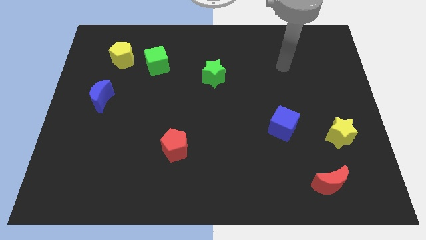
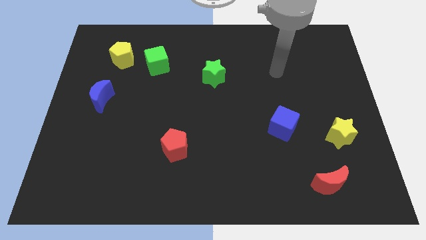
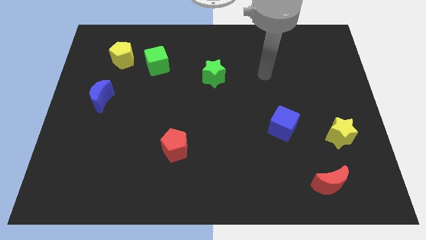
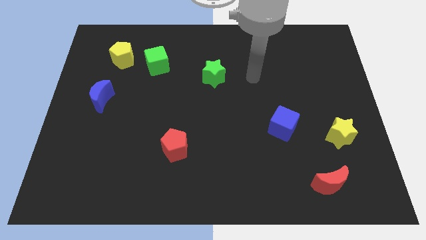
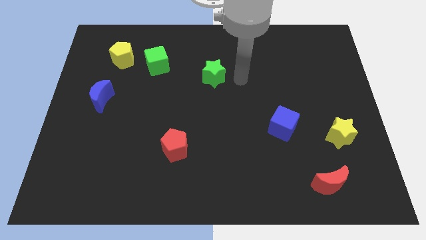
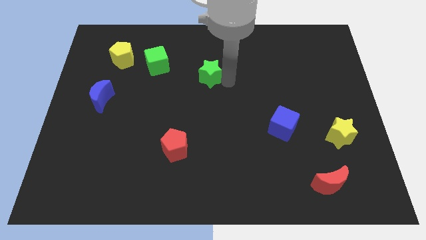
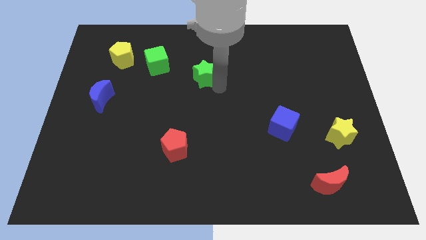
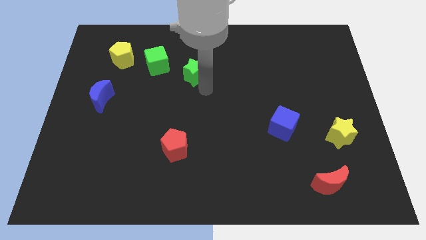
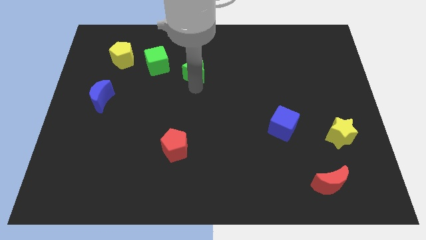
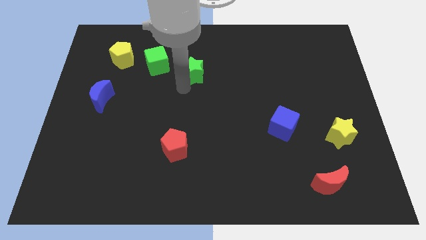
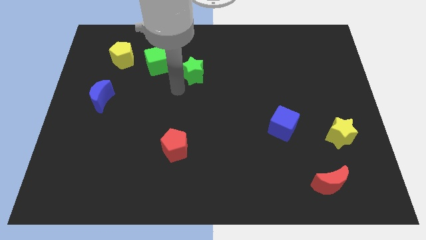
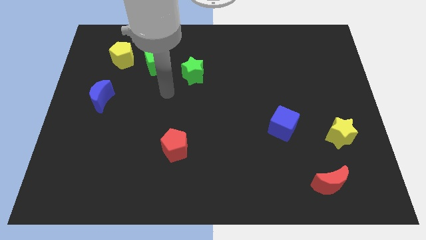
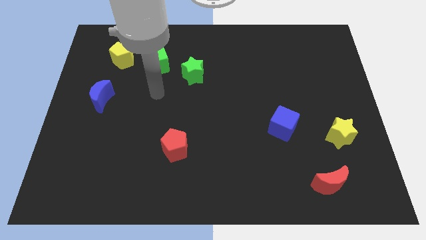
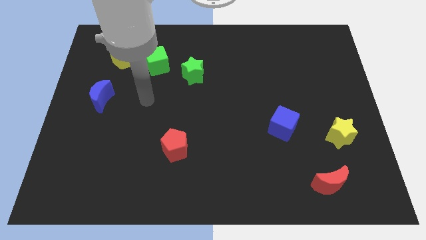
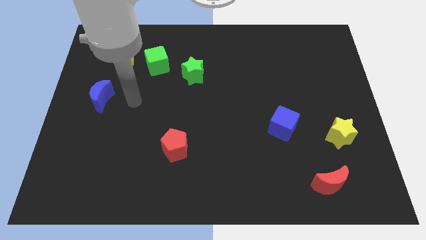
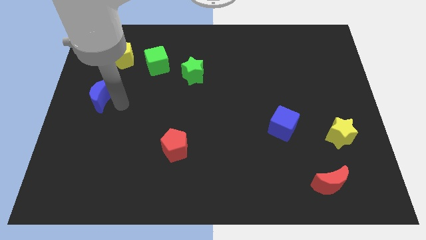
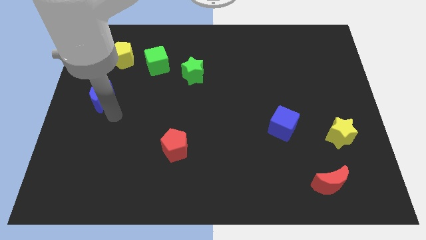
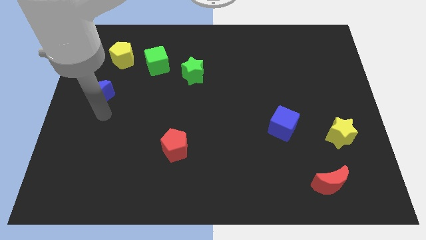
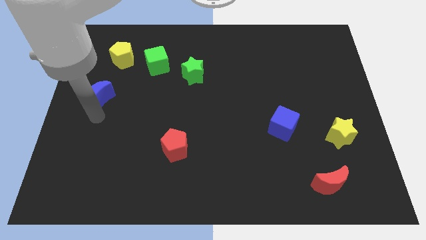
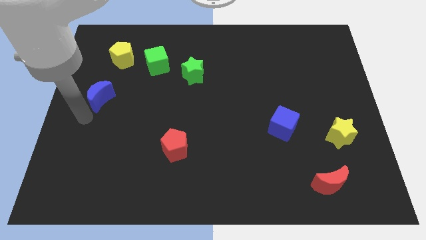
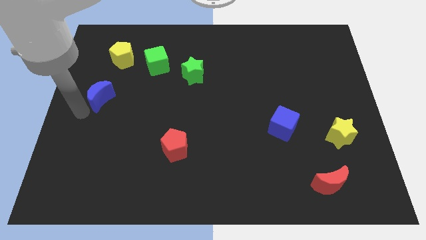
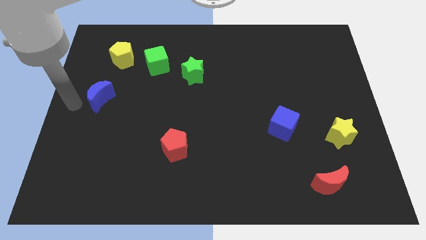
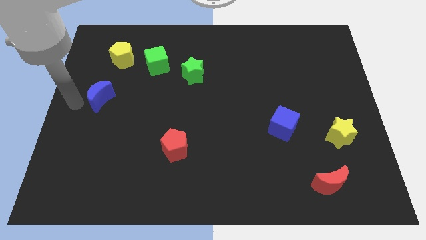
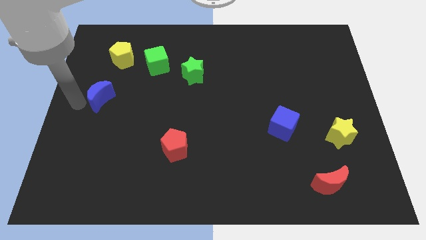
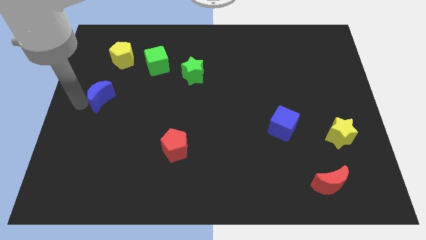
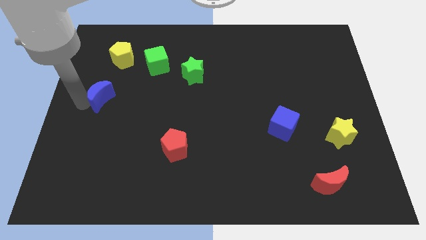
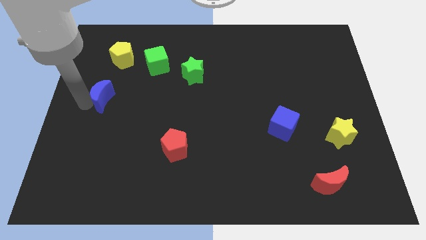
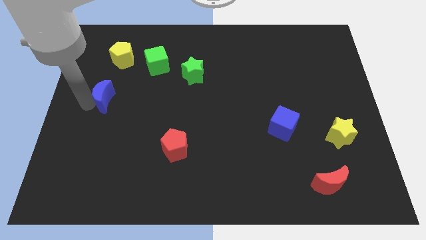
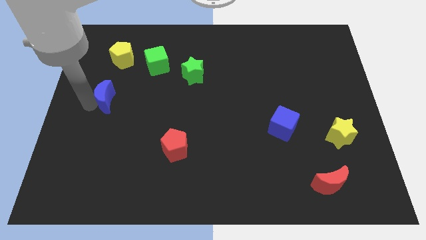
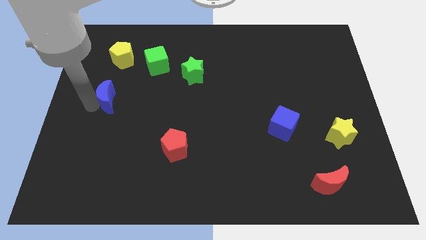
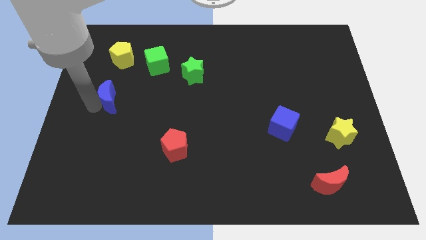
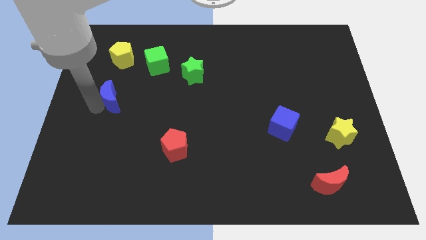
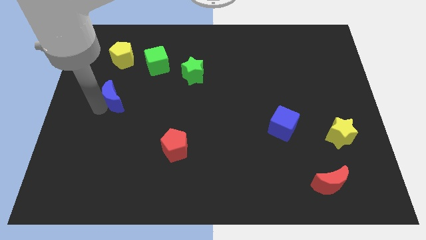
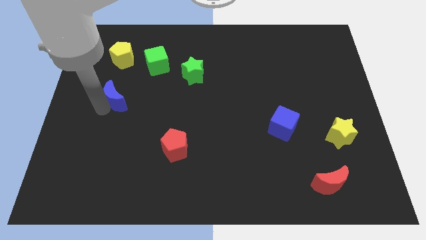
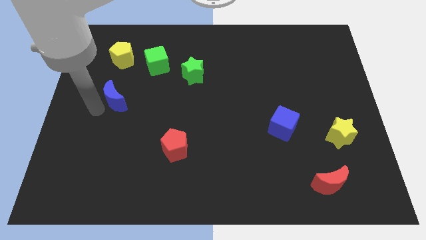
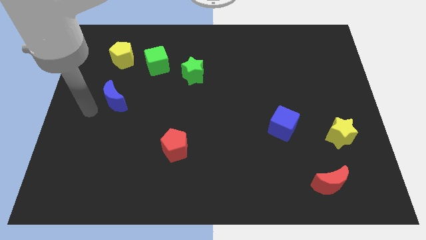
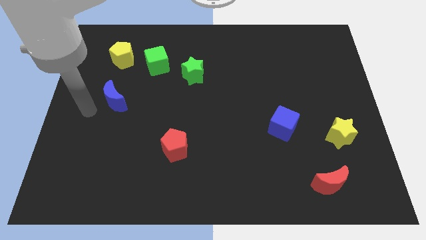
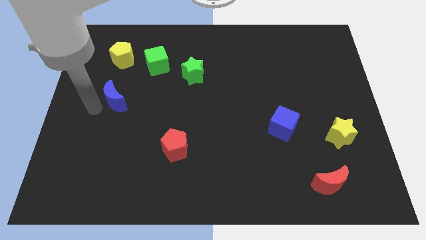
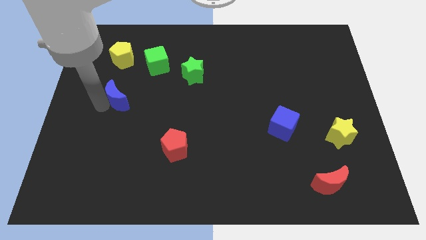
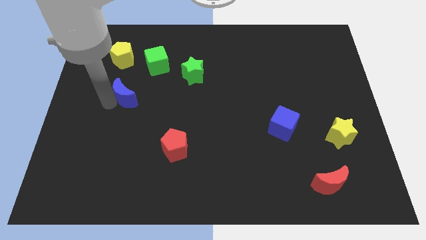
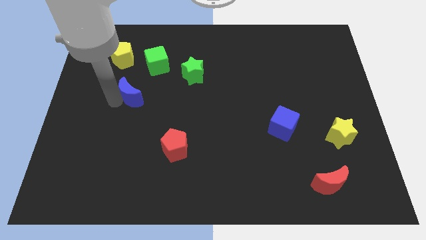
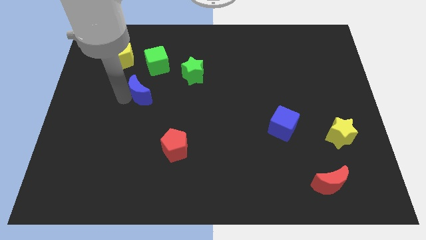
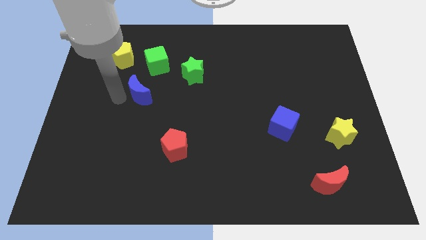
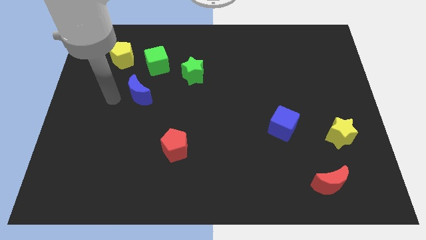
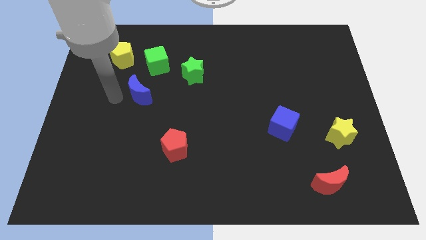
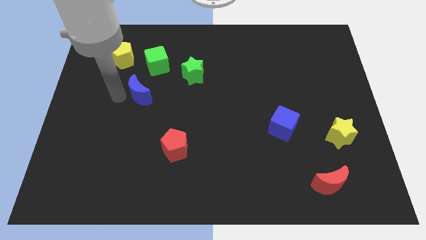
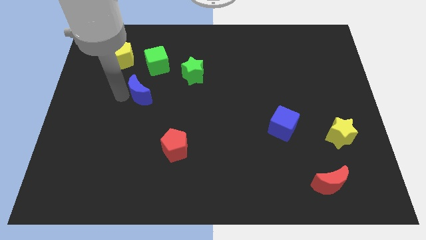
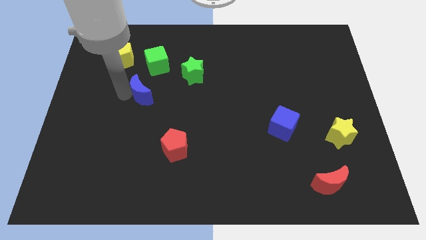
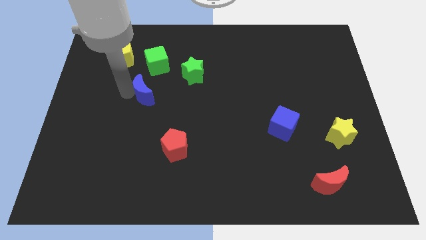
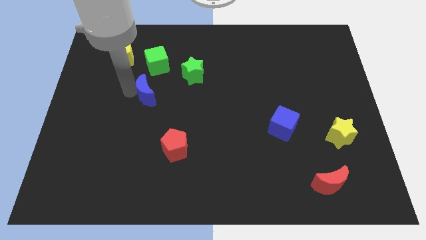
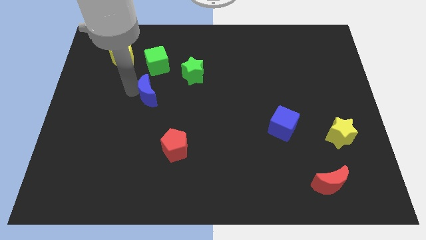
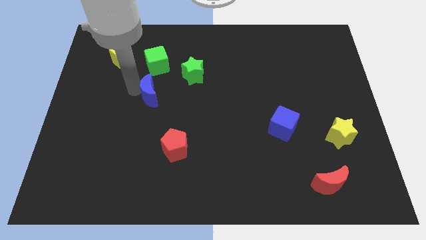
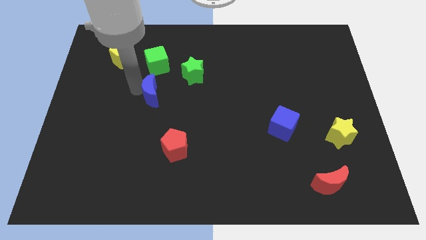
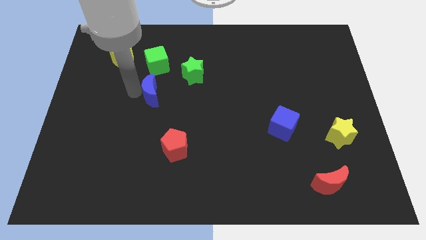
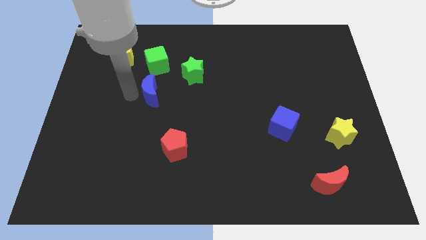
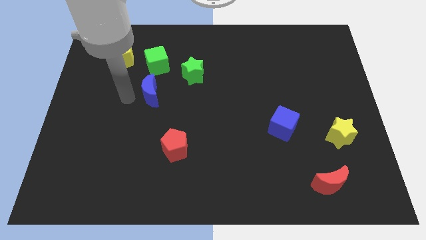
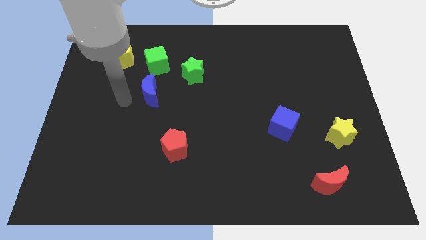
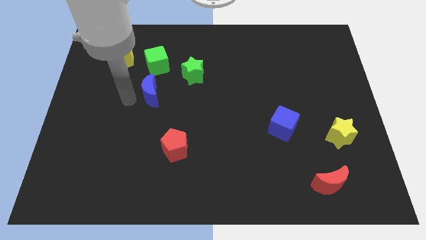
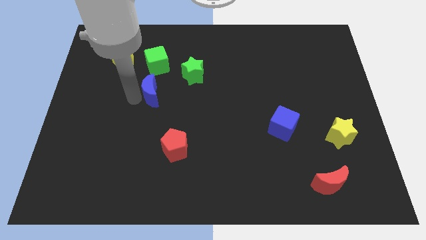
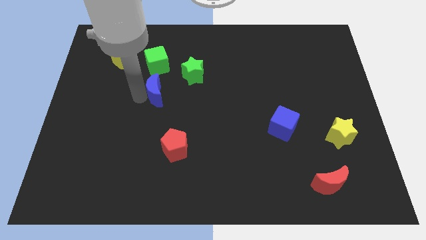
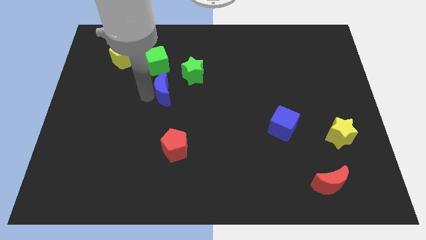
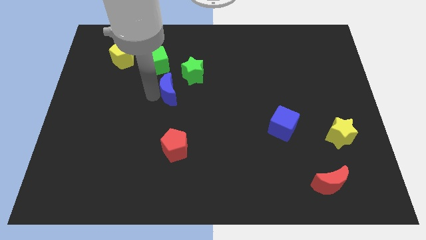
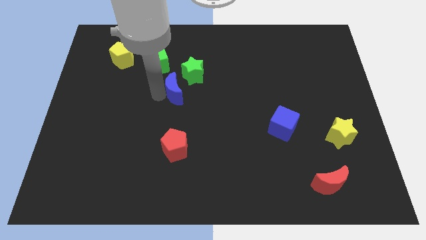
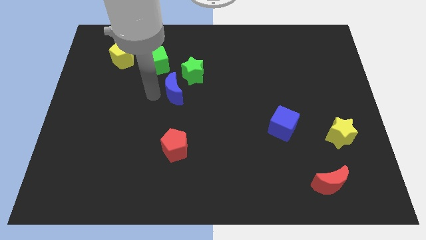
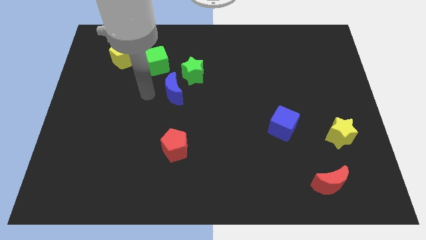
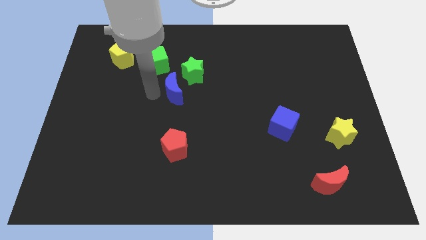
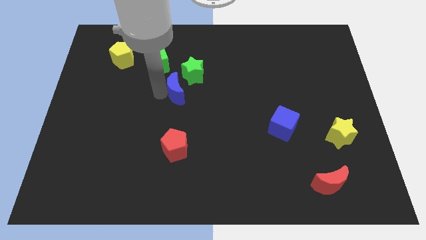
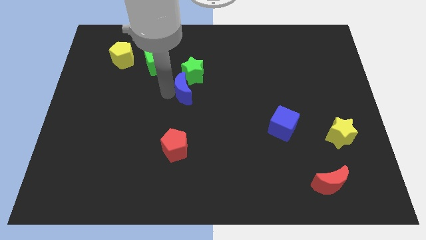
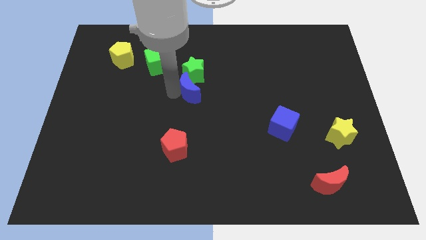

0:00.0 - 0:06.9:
push the blue moon right

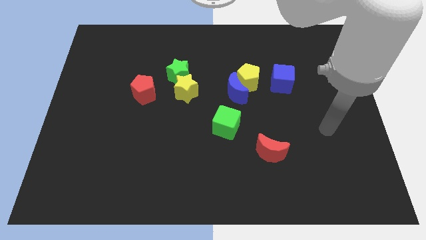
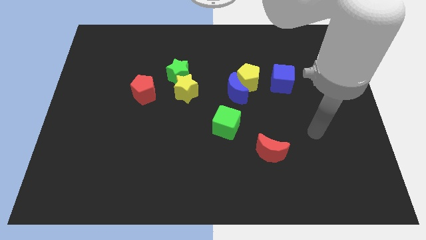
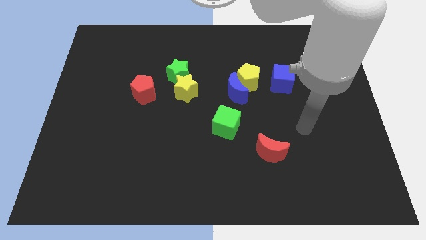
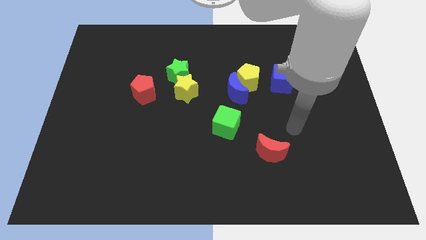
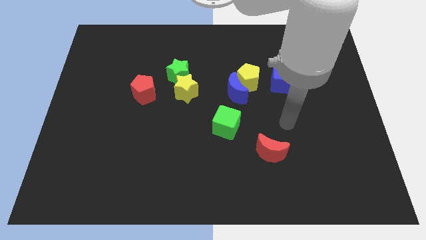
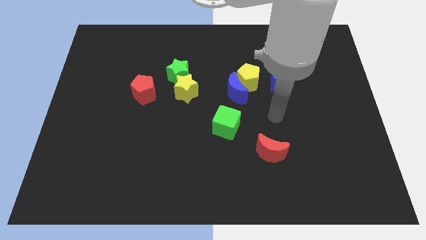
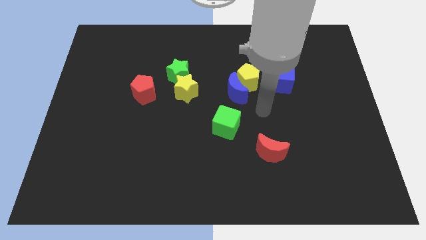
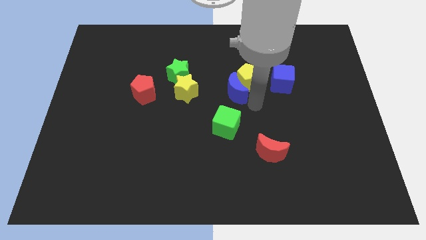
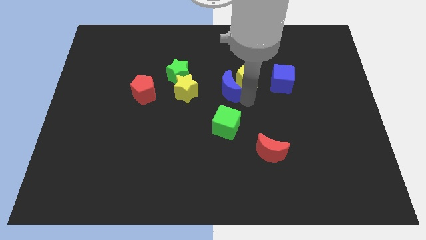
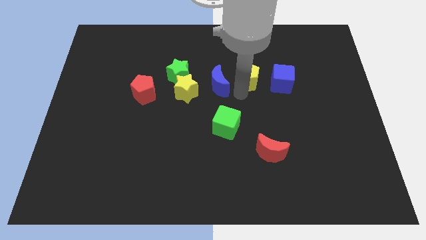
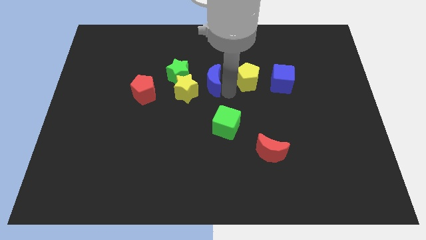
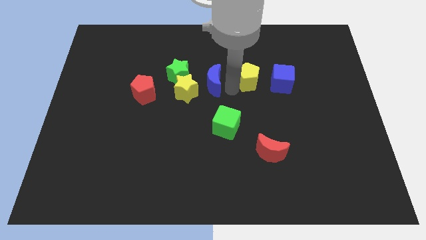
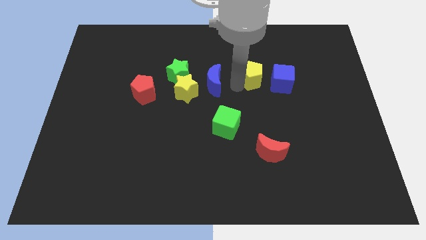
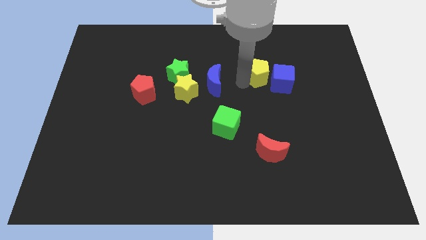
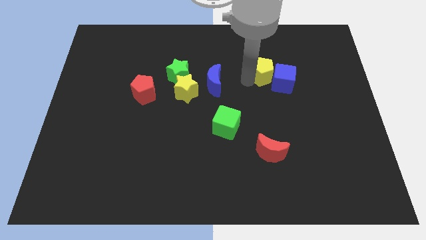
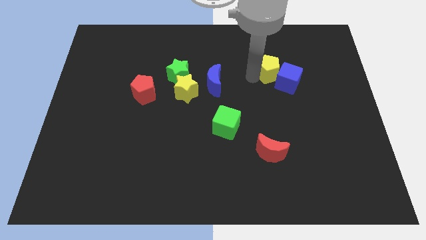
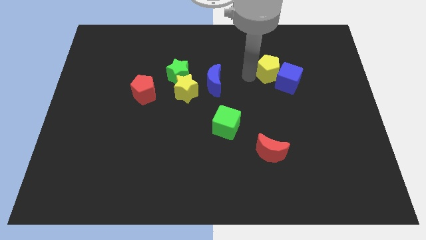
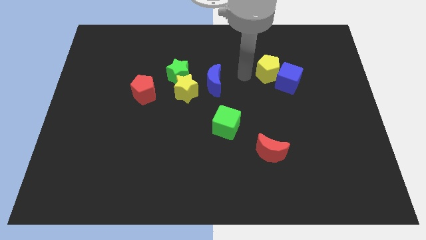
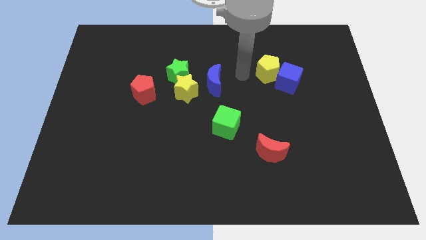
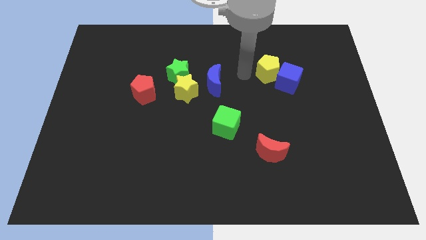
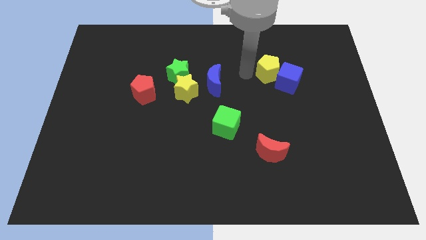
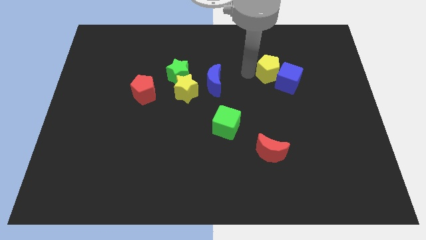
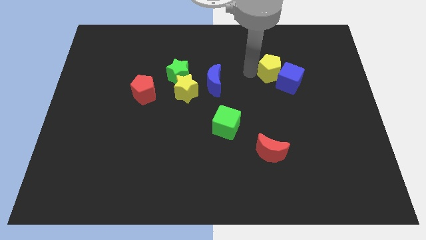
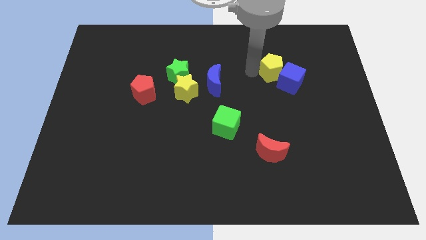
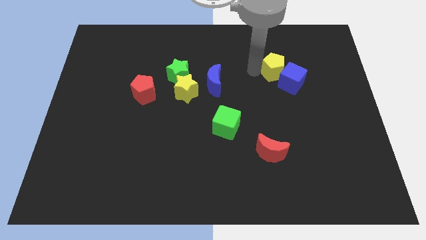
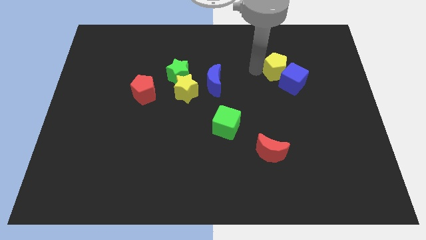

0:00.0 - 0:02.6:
move the yellow pentagon a bit right
